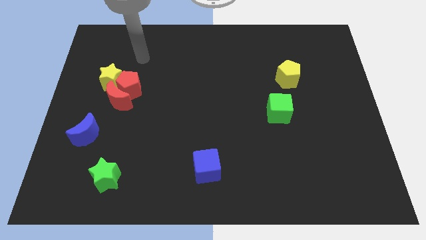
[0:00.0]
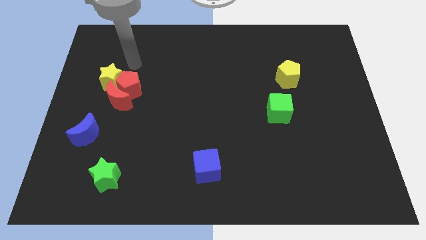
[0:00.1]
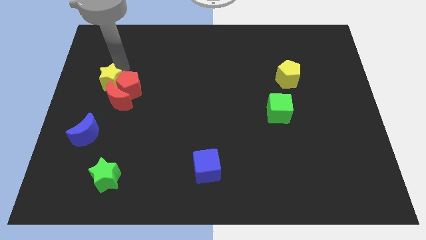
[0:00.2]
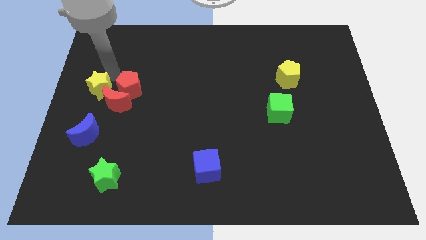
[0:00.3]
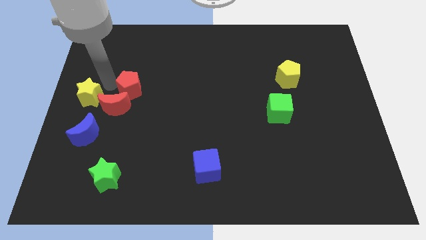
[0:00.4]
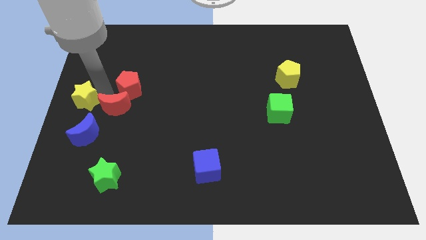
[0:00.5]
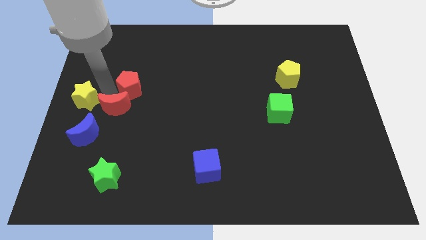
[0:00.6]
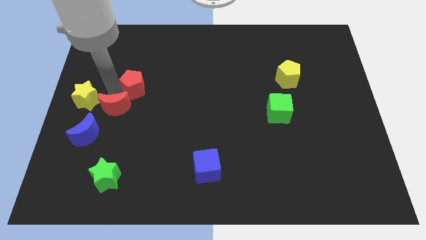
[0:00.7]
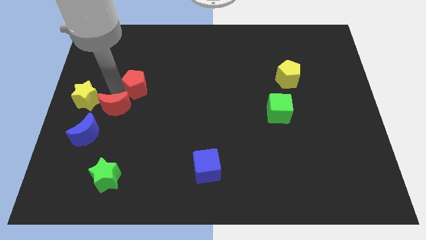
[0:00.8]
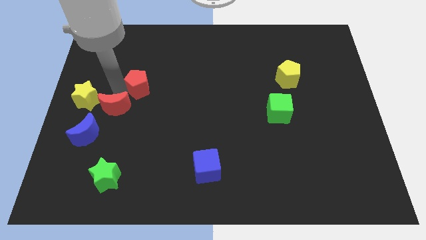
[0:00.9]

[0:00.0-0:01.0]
separate the red pentagon from the red moon and yellow star

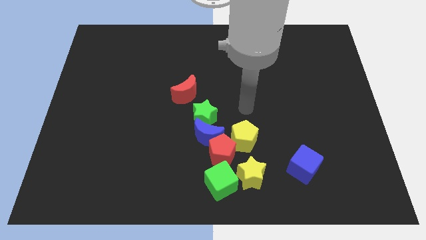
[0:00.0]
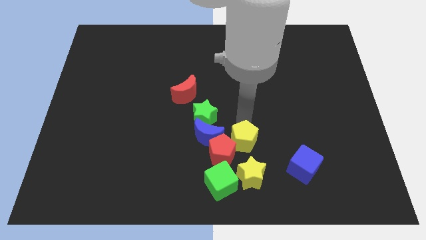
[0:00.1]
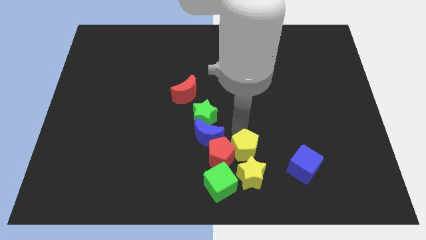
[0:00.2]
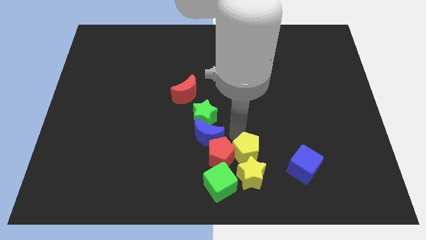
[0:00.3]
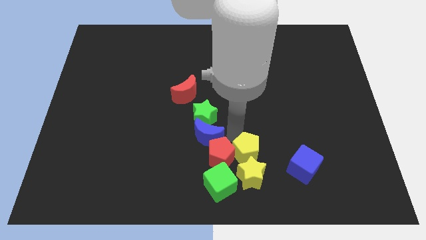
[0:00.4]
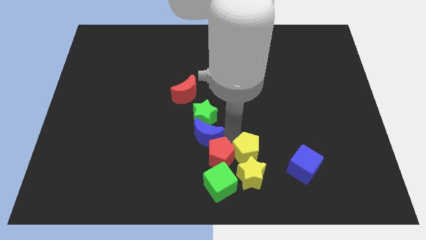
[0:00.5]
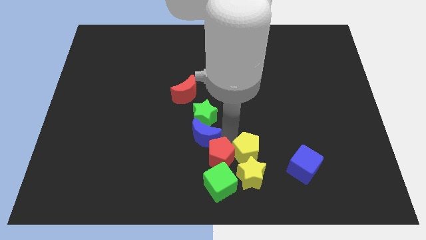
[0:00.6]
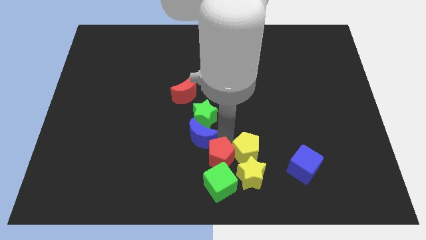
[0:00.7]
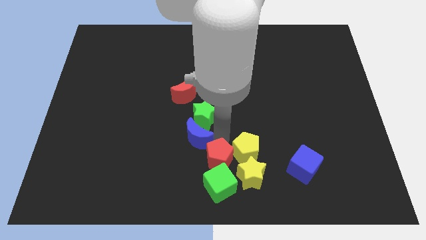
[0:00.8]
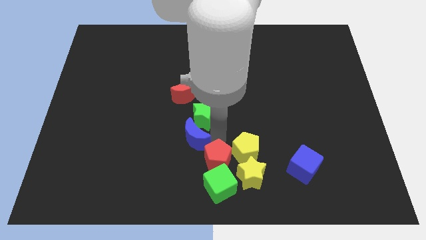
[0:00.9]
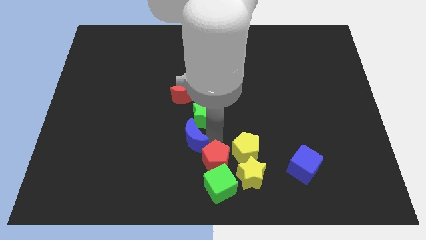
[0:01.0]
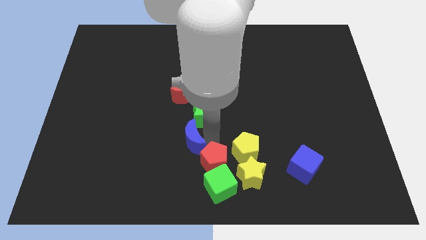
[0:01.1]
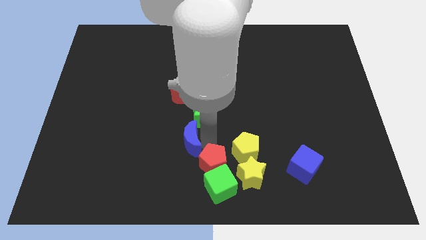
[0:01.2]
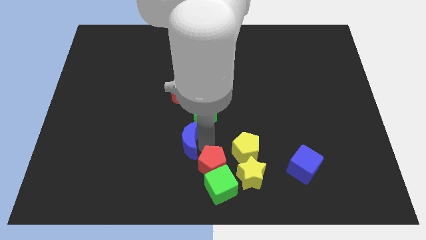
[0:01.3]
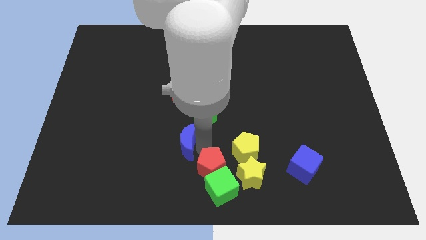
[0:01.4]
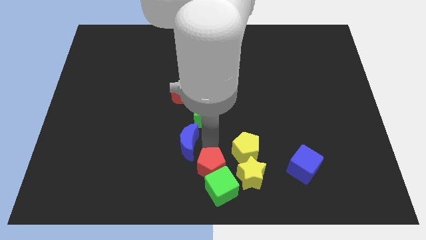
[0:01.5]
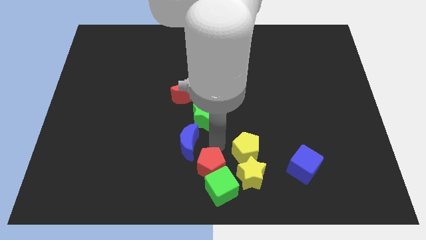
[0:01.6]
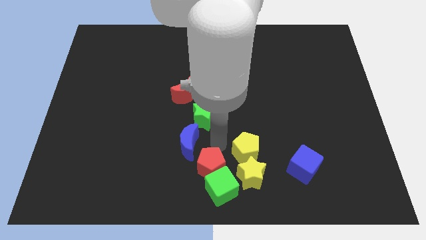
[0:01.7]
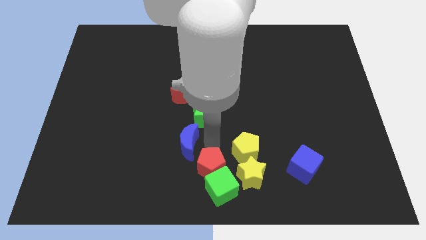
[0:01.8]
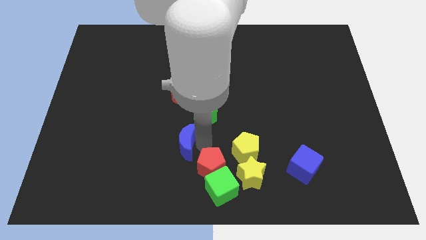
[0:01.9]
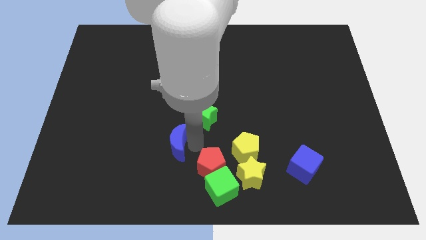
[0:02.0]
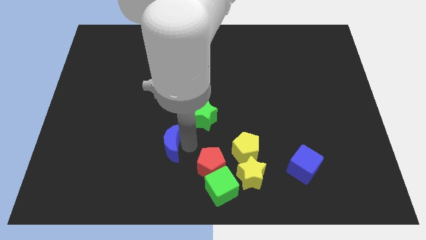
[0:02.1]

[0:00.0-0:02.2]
separate the blue moon from the clump

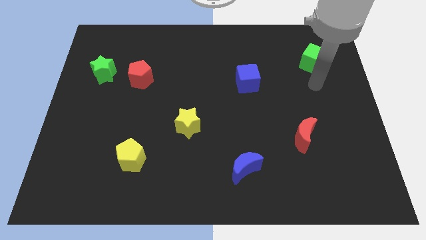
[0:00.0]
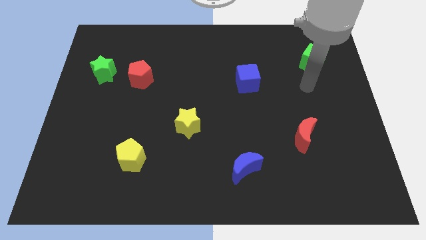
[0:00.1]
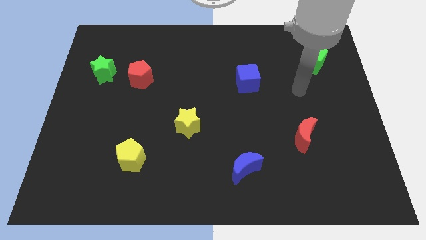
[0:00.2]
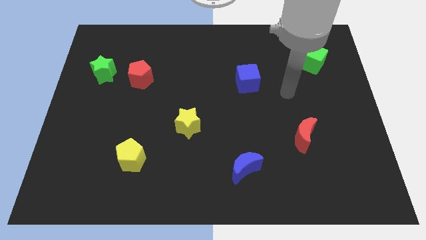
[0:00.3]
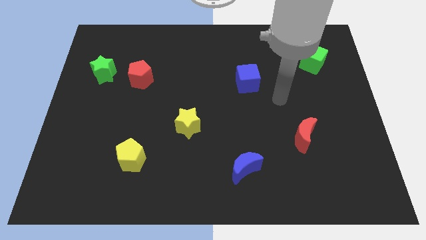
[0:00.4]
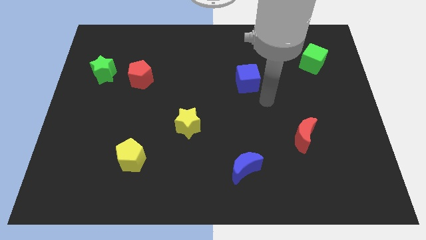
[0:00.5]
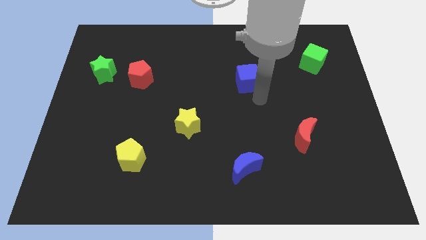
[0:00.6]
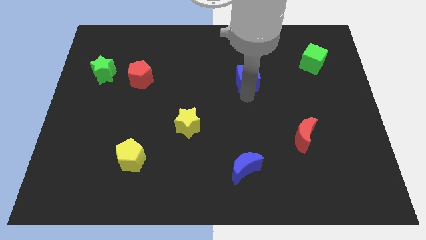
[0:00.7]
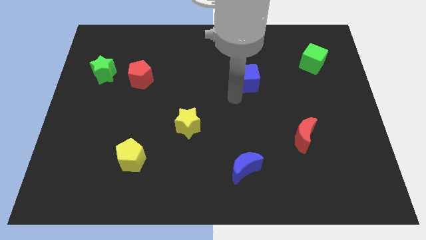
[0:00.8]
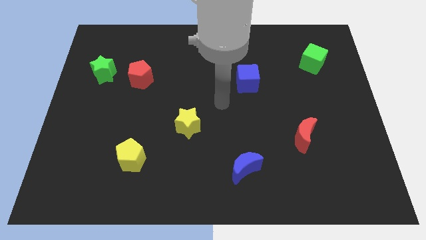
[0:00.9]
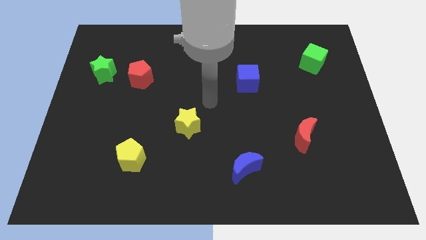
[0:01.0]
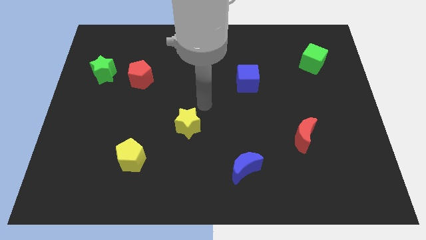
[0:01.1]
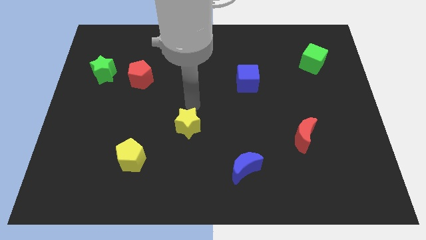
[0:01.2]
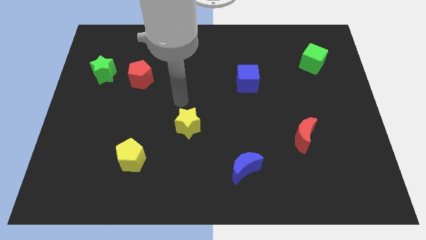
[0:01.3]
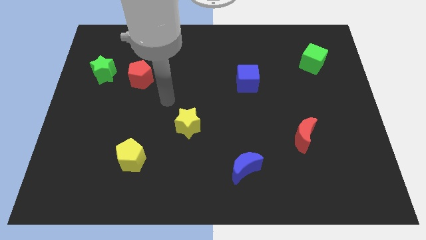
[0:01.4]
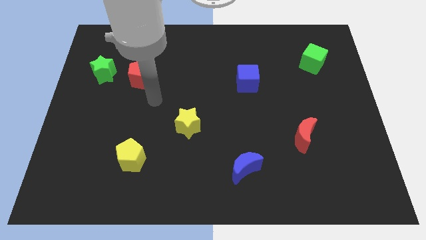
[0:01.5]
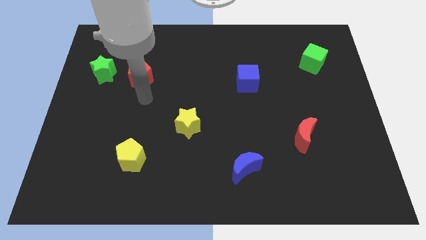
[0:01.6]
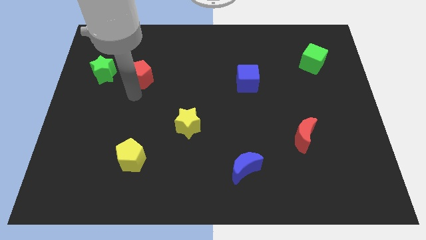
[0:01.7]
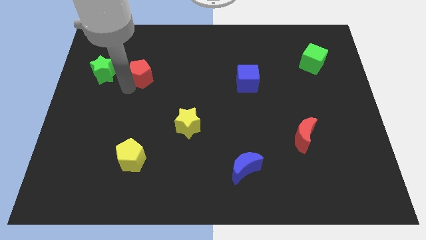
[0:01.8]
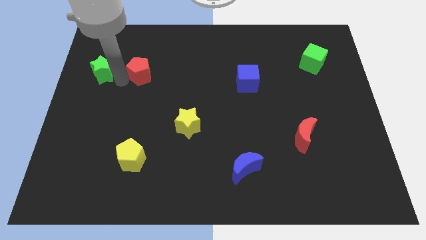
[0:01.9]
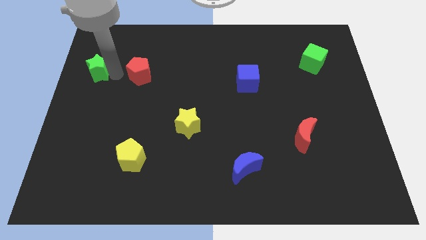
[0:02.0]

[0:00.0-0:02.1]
pull the red pentagon apart from the green star

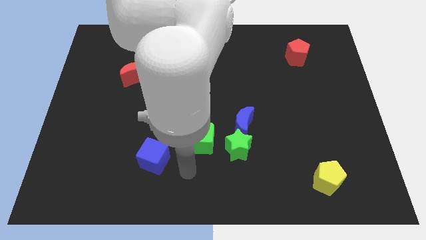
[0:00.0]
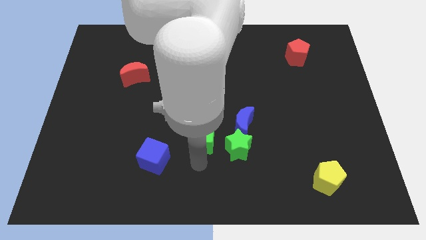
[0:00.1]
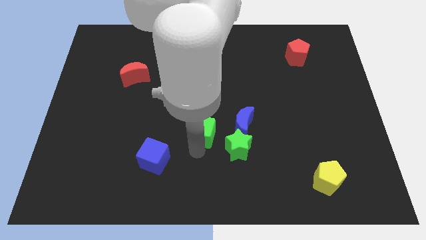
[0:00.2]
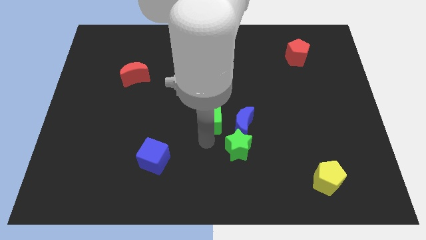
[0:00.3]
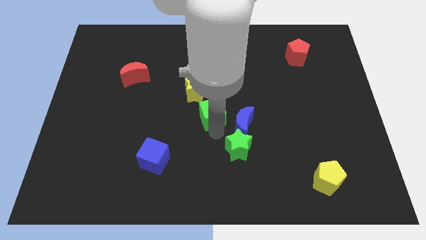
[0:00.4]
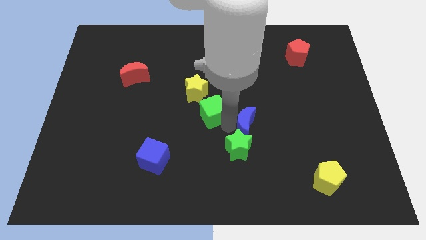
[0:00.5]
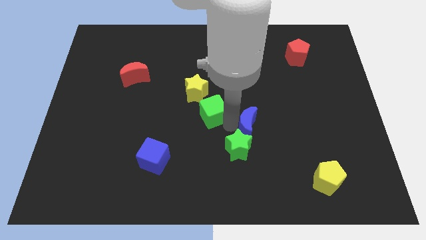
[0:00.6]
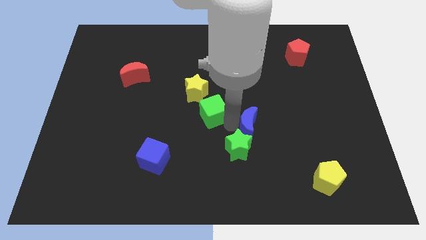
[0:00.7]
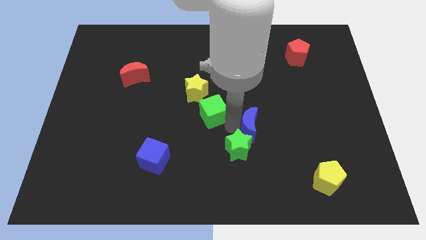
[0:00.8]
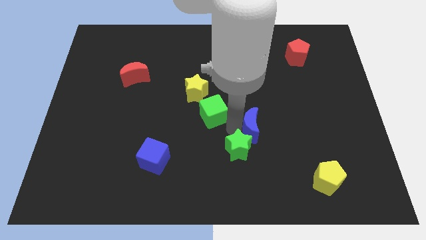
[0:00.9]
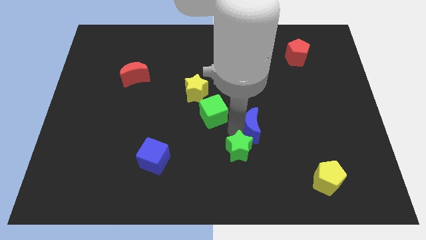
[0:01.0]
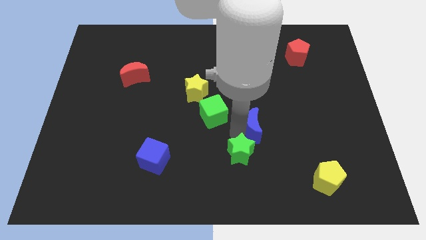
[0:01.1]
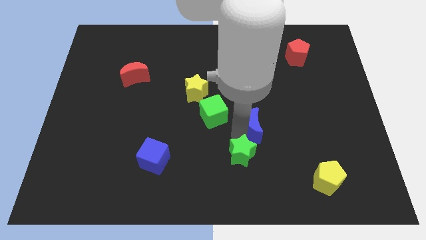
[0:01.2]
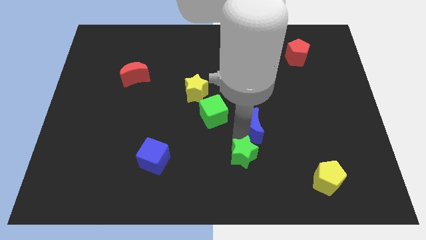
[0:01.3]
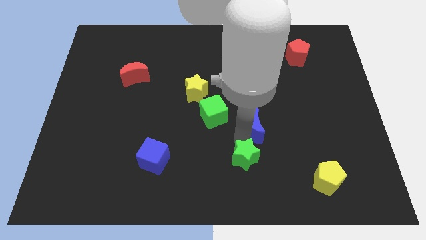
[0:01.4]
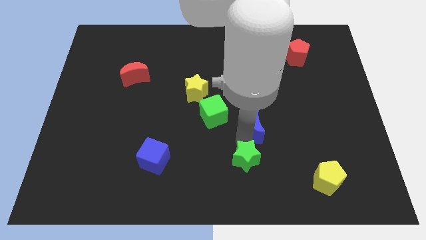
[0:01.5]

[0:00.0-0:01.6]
move the green star away from the blue moon and green cube

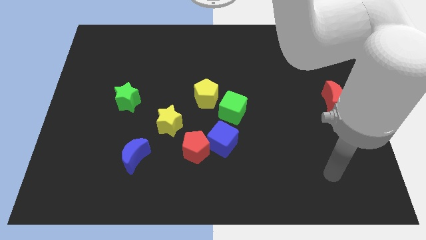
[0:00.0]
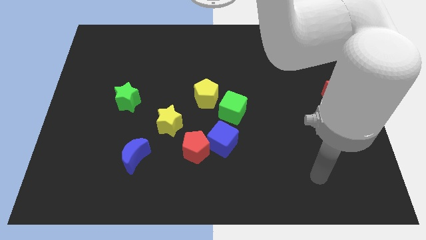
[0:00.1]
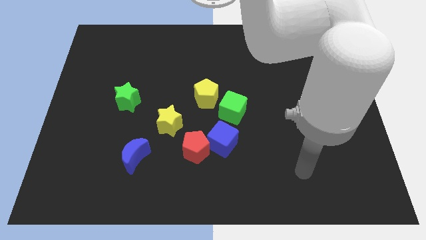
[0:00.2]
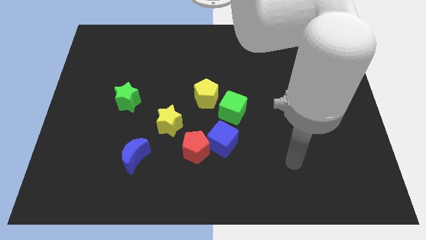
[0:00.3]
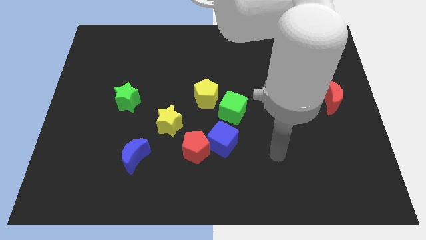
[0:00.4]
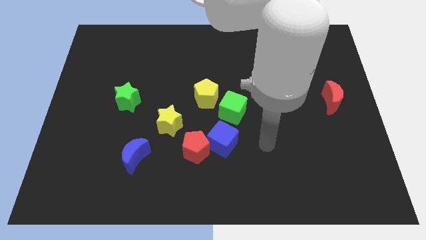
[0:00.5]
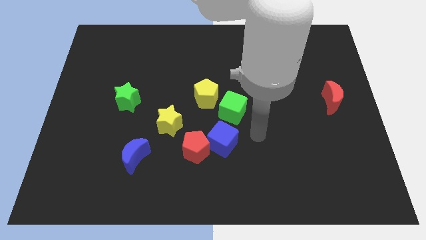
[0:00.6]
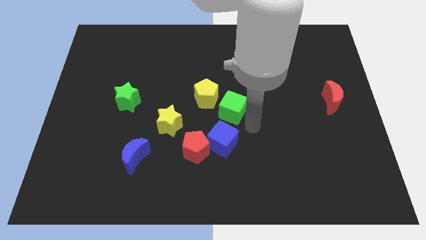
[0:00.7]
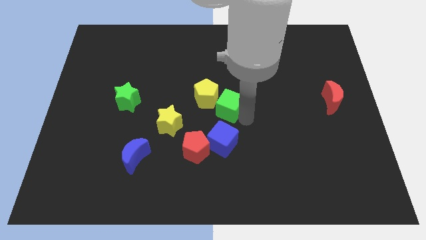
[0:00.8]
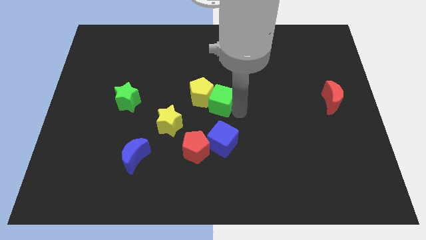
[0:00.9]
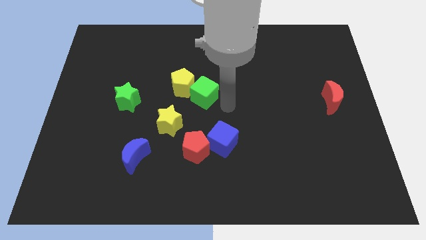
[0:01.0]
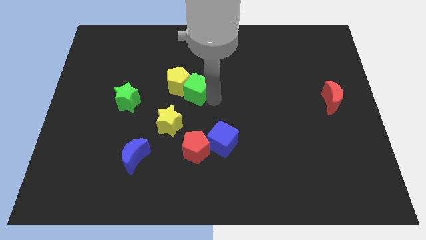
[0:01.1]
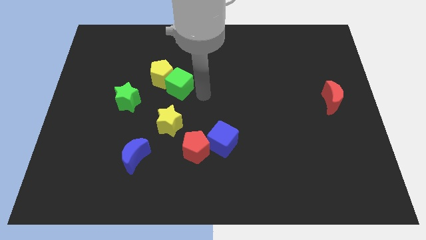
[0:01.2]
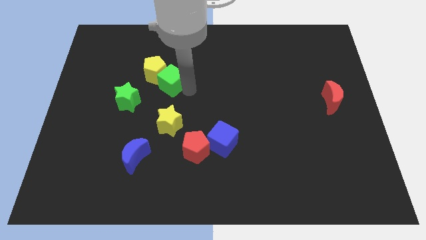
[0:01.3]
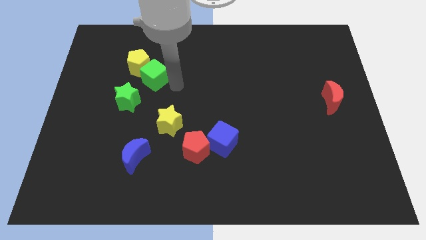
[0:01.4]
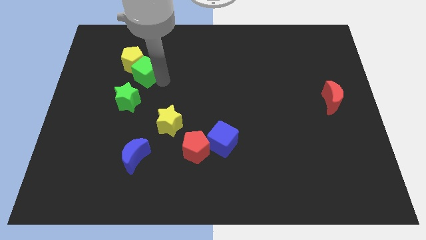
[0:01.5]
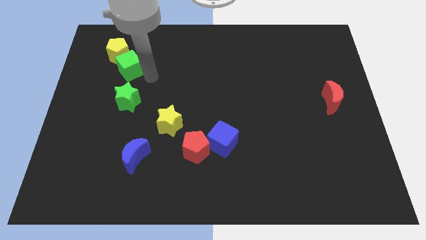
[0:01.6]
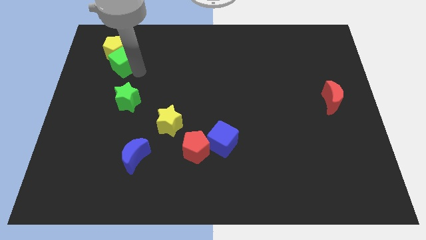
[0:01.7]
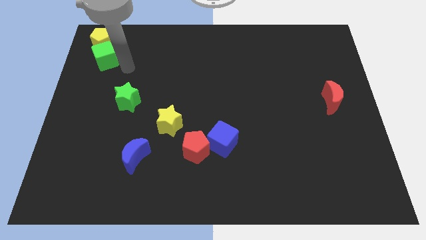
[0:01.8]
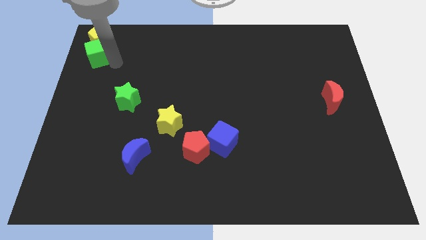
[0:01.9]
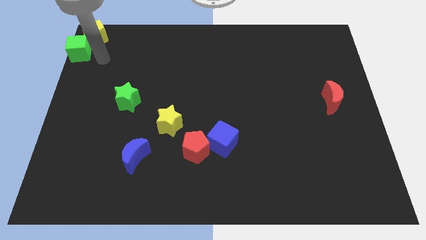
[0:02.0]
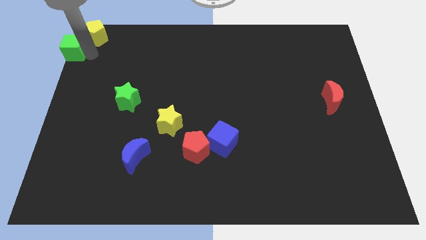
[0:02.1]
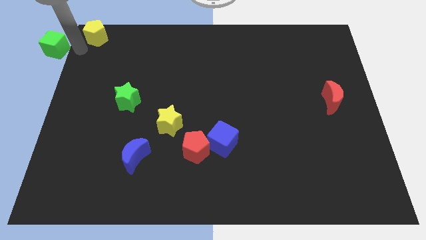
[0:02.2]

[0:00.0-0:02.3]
move the yellow pentagon away from the green cube
